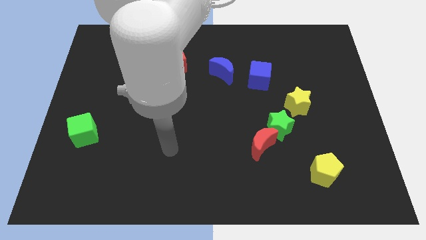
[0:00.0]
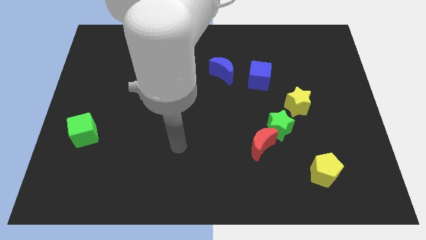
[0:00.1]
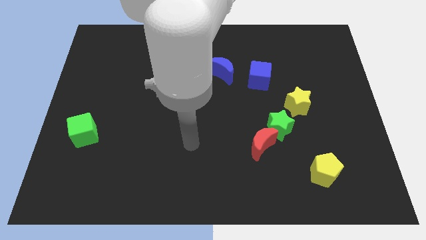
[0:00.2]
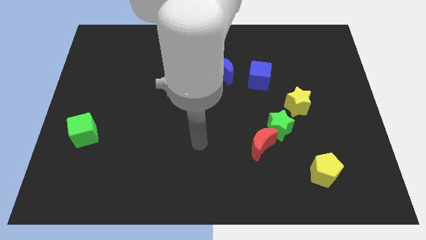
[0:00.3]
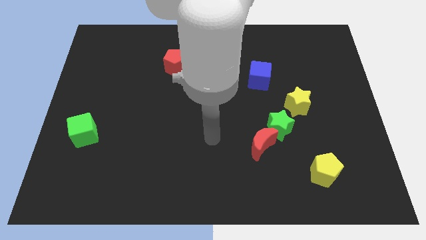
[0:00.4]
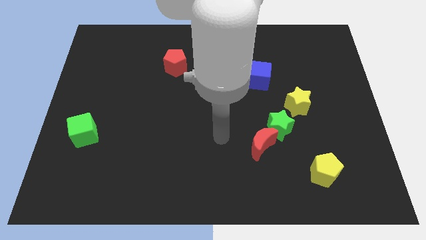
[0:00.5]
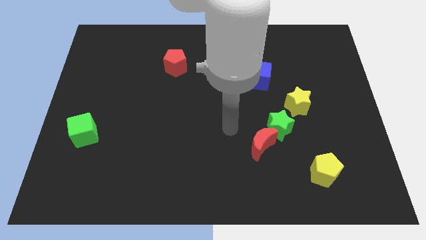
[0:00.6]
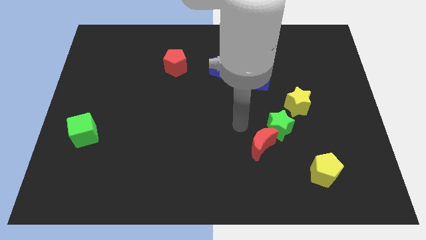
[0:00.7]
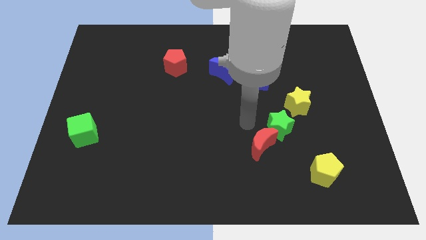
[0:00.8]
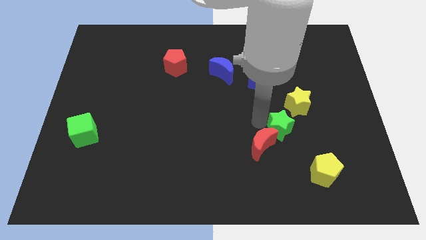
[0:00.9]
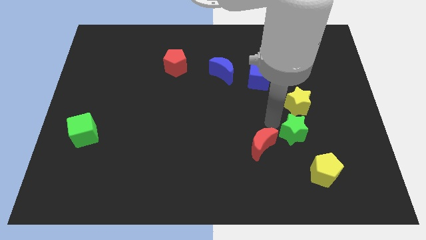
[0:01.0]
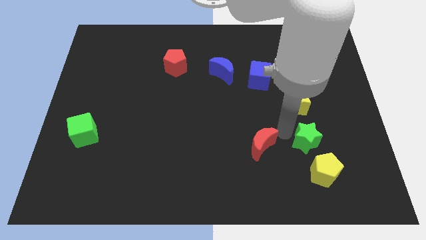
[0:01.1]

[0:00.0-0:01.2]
separate the red moon from the green star

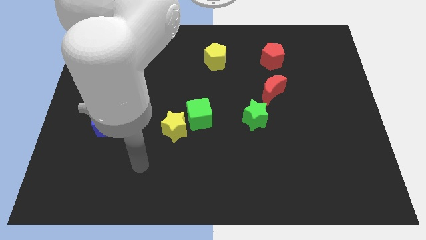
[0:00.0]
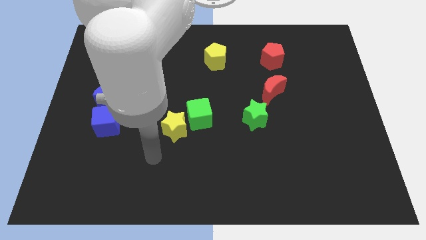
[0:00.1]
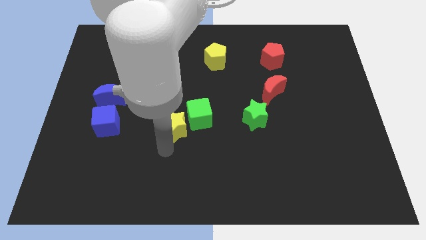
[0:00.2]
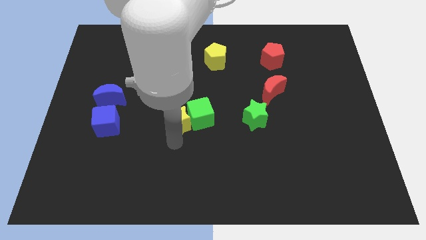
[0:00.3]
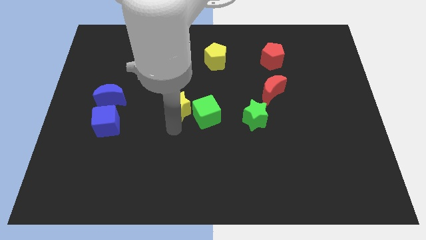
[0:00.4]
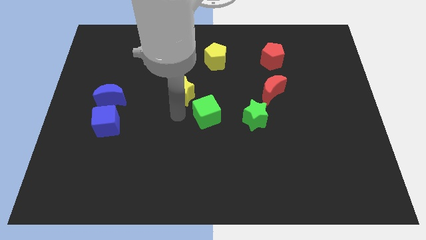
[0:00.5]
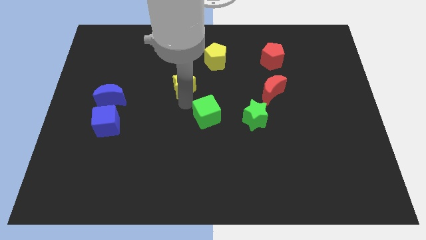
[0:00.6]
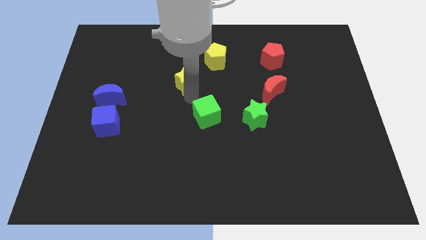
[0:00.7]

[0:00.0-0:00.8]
pull the green cube apart from the yellow star

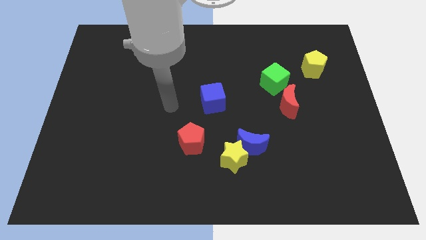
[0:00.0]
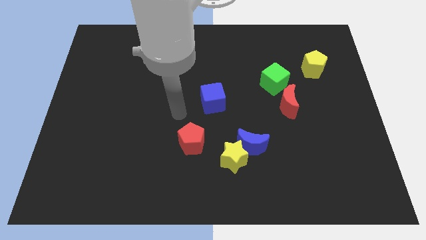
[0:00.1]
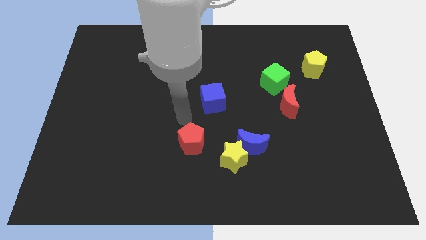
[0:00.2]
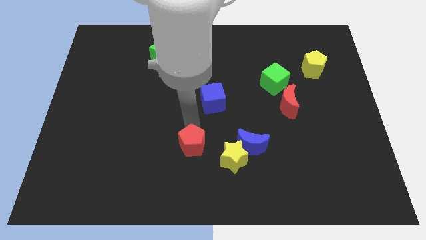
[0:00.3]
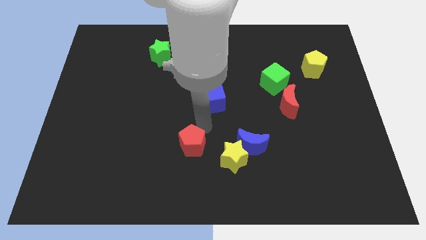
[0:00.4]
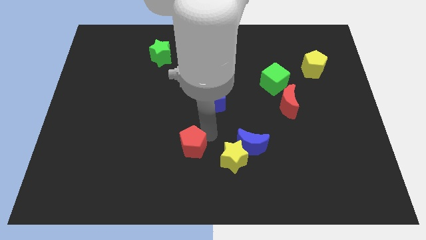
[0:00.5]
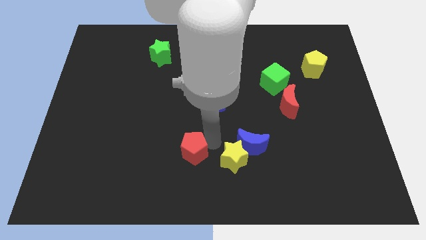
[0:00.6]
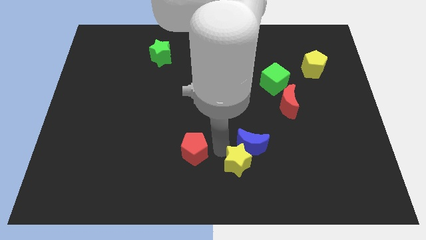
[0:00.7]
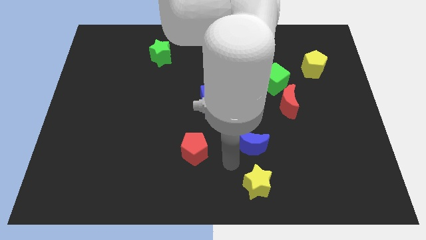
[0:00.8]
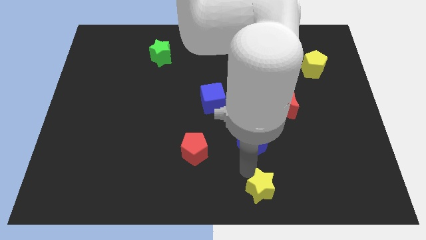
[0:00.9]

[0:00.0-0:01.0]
pull the blue moon apart from the yellow star

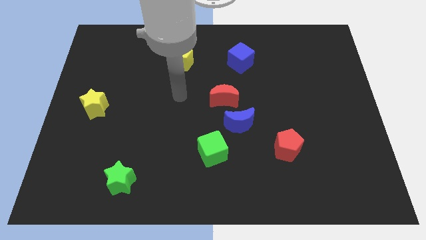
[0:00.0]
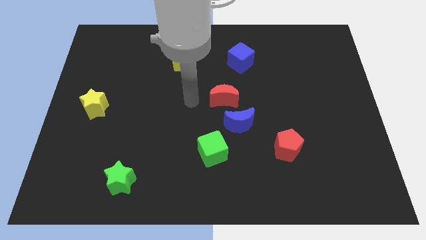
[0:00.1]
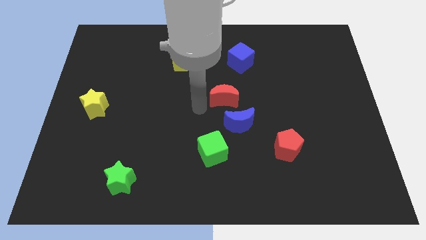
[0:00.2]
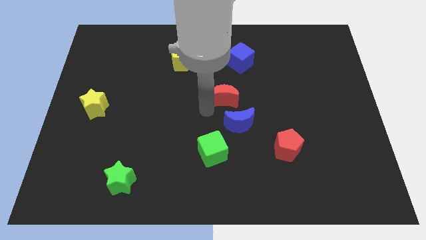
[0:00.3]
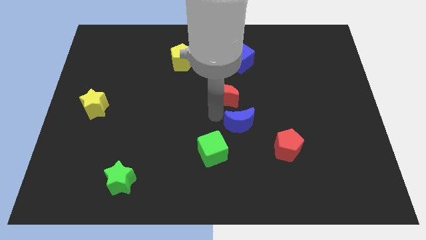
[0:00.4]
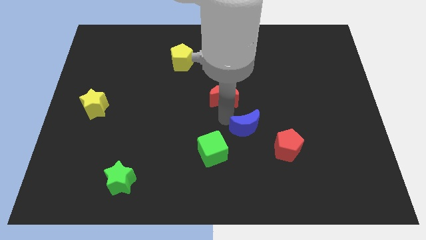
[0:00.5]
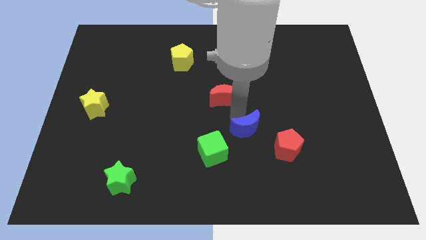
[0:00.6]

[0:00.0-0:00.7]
move the red moon away from the blue moon

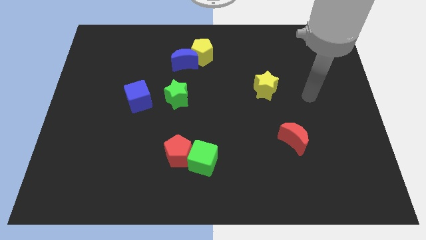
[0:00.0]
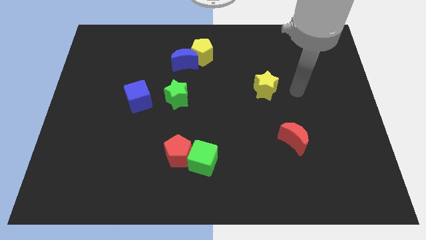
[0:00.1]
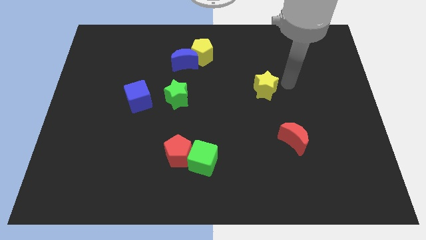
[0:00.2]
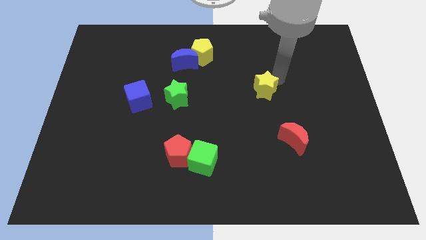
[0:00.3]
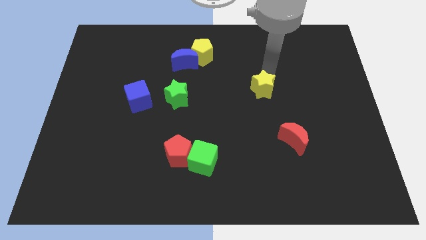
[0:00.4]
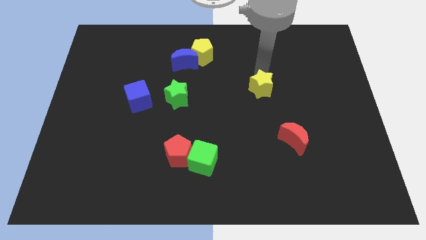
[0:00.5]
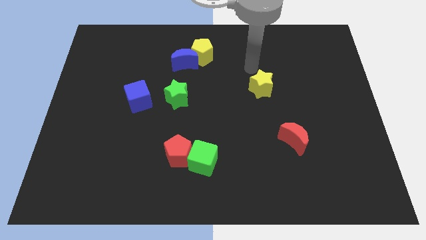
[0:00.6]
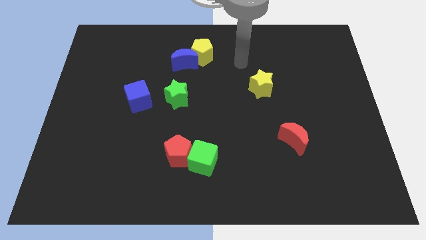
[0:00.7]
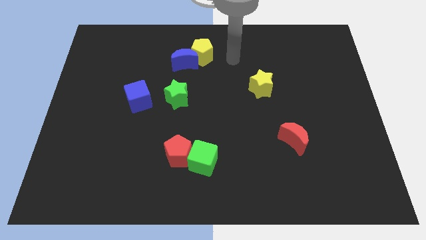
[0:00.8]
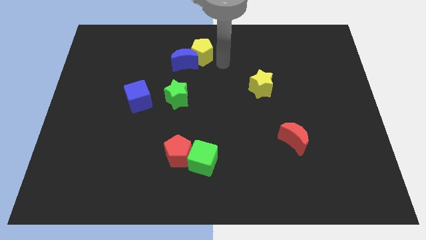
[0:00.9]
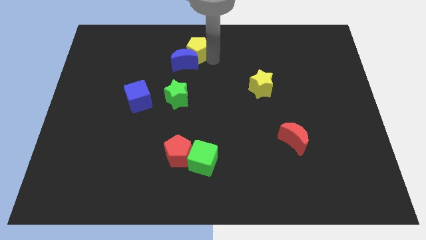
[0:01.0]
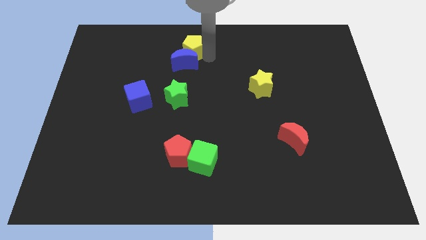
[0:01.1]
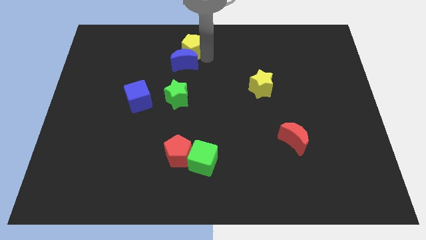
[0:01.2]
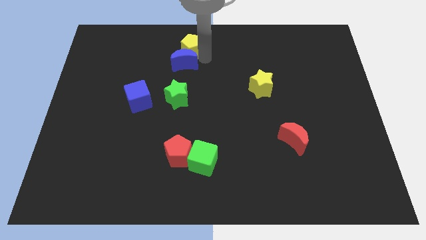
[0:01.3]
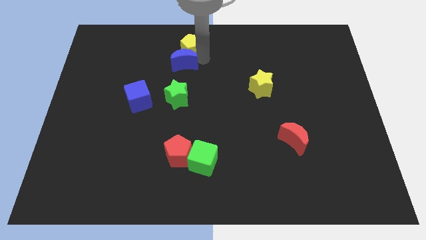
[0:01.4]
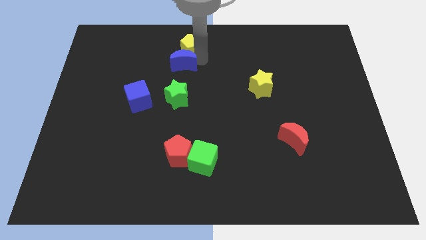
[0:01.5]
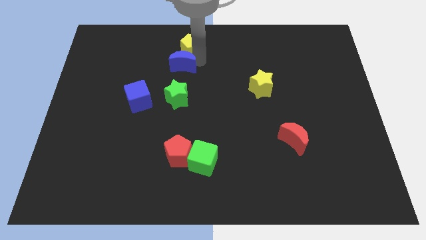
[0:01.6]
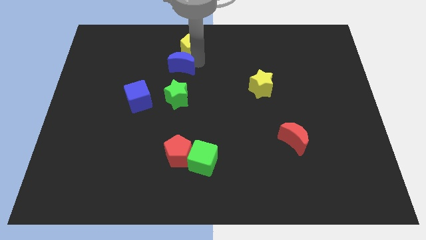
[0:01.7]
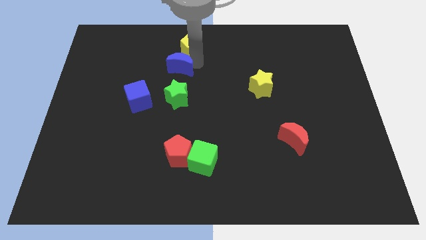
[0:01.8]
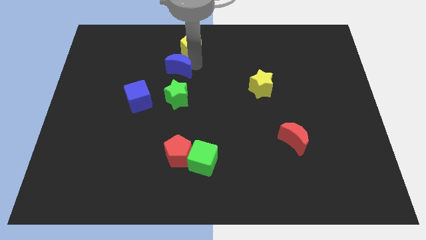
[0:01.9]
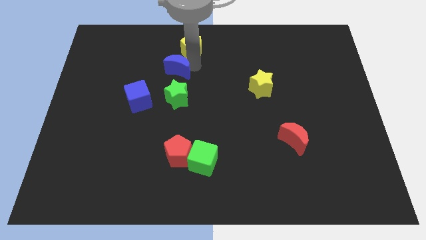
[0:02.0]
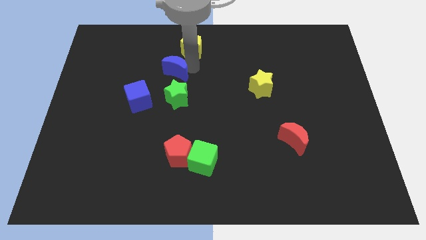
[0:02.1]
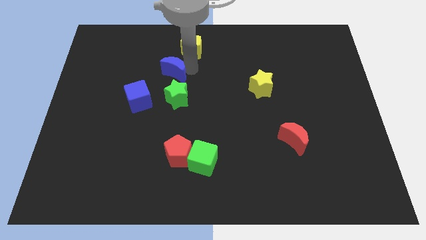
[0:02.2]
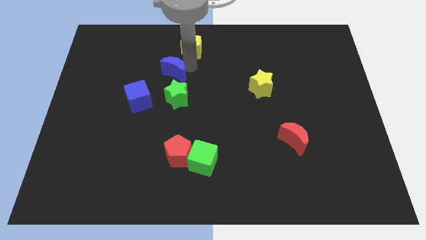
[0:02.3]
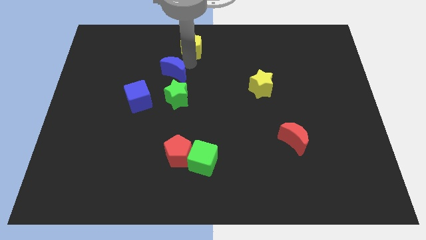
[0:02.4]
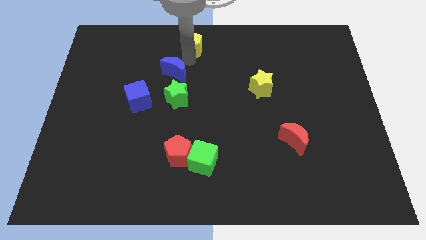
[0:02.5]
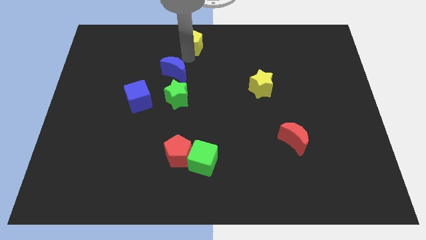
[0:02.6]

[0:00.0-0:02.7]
move the blue moon away from the yellow pentagon

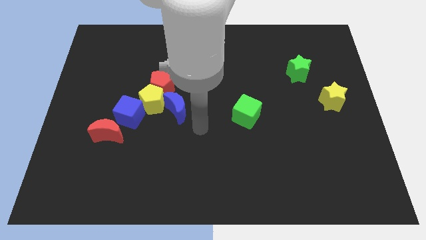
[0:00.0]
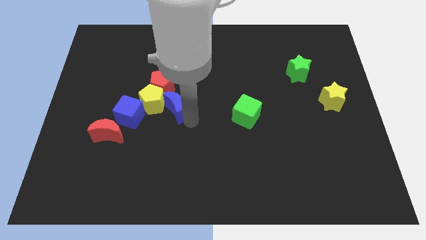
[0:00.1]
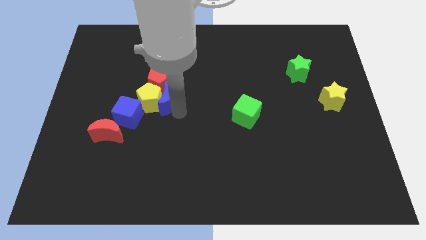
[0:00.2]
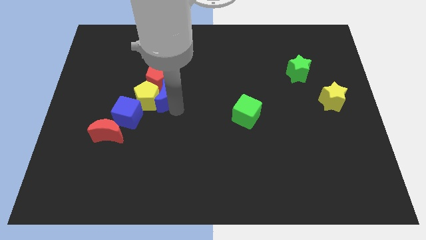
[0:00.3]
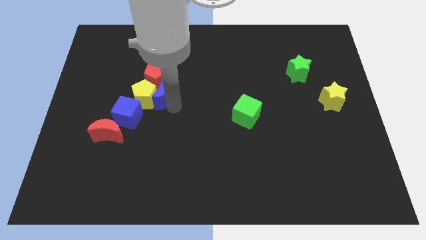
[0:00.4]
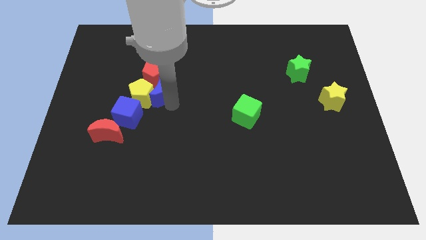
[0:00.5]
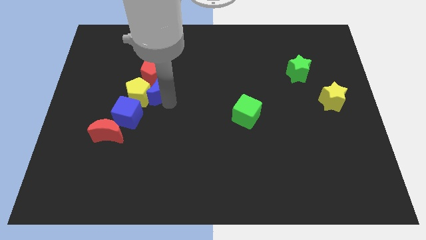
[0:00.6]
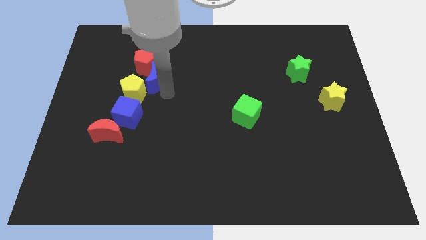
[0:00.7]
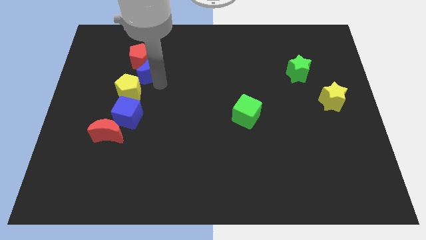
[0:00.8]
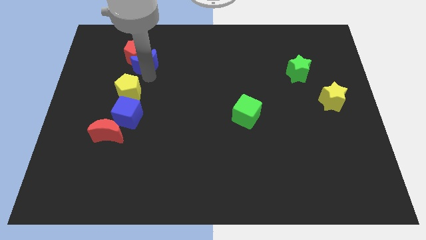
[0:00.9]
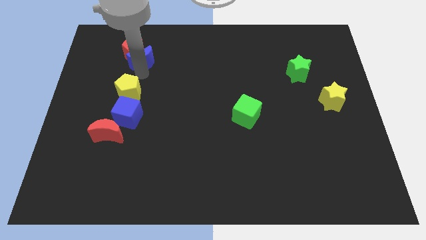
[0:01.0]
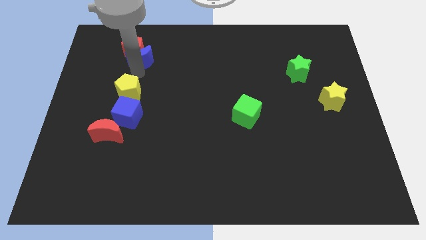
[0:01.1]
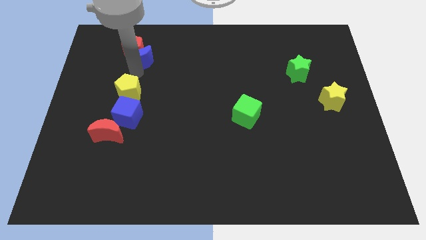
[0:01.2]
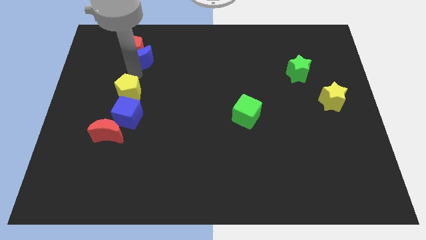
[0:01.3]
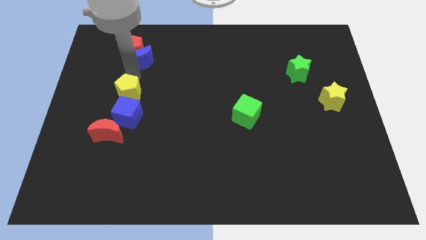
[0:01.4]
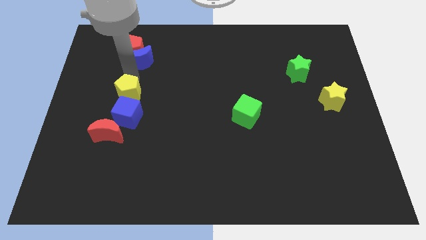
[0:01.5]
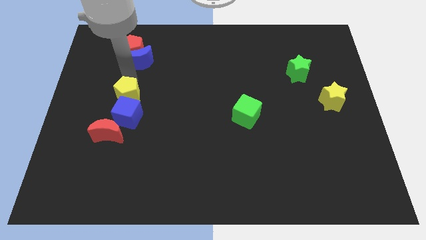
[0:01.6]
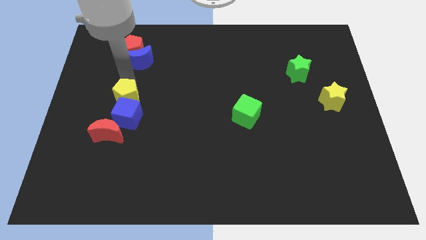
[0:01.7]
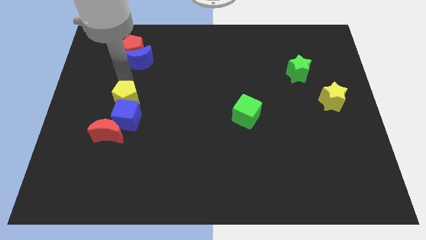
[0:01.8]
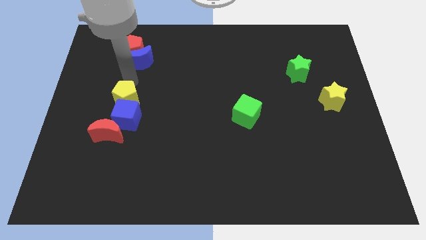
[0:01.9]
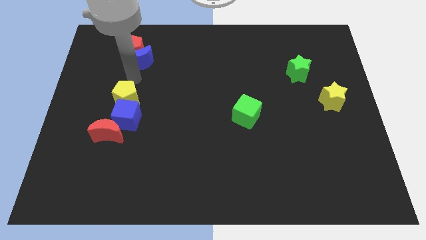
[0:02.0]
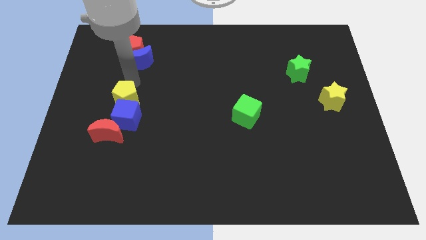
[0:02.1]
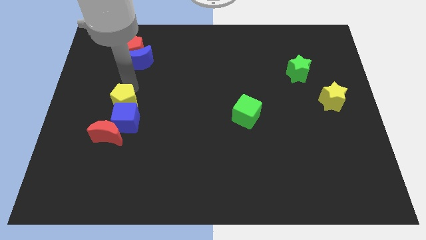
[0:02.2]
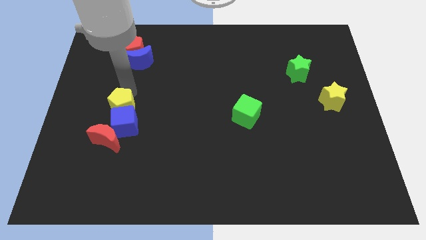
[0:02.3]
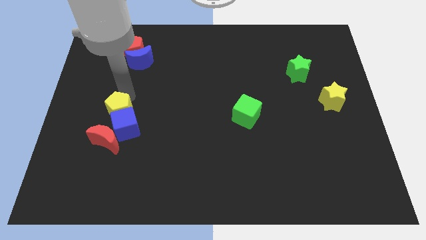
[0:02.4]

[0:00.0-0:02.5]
pull the yellow pentagon apart from the red pentagon, blue moon, and blue cube

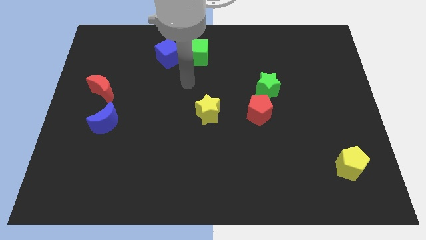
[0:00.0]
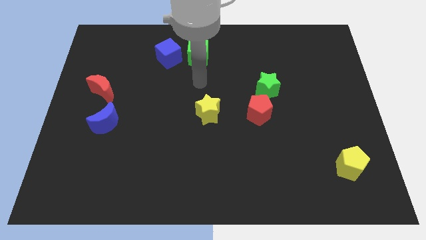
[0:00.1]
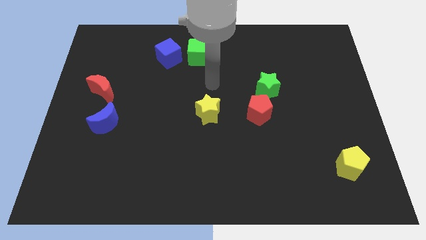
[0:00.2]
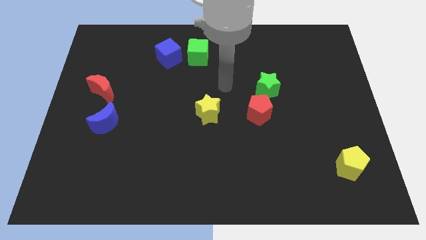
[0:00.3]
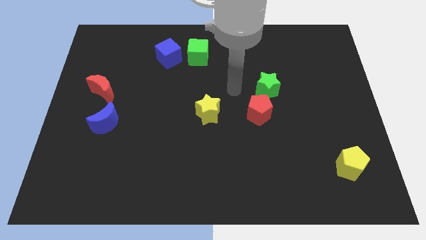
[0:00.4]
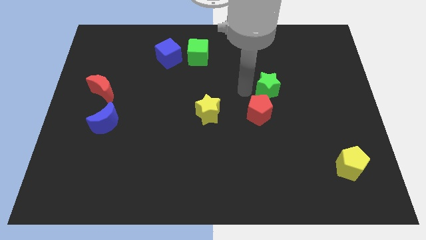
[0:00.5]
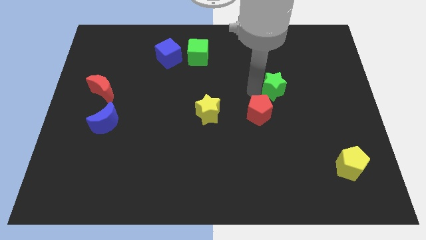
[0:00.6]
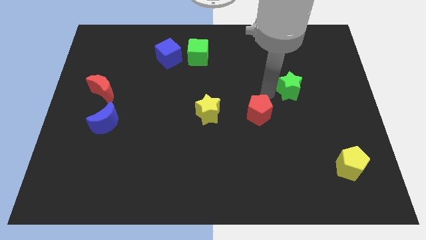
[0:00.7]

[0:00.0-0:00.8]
move the red pentagon away from the green star
